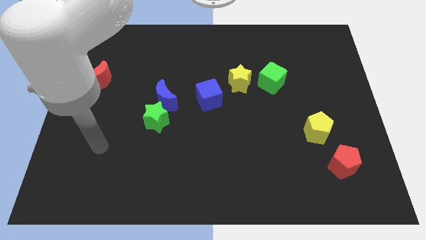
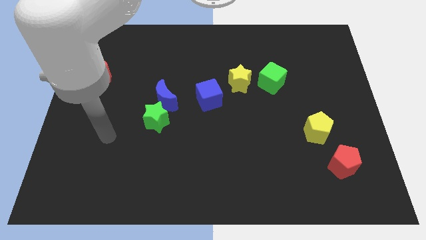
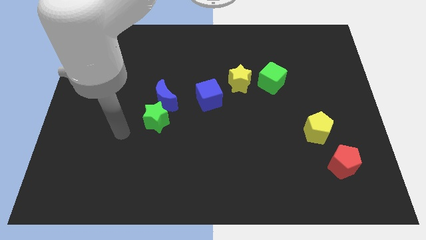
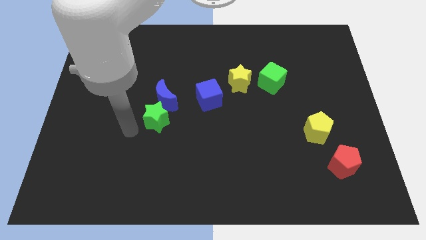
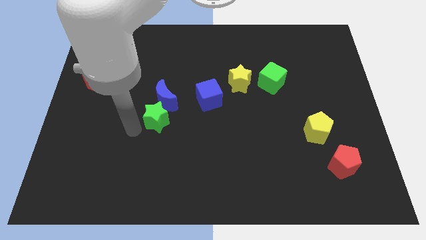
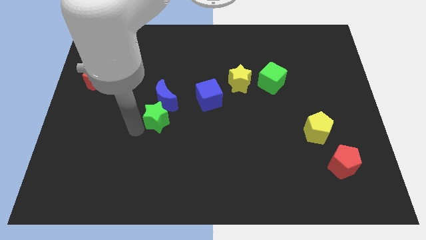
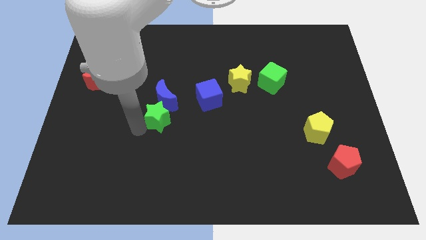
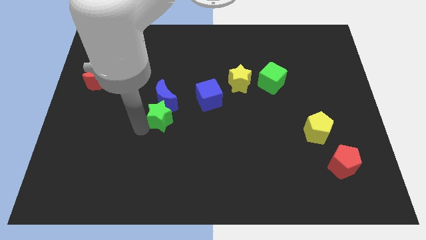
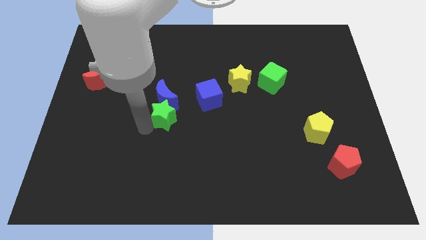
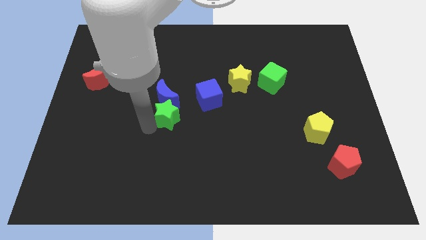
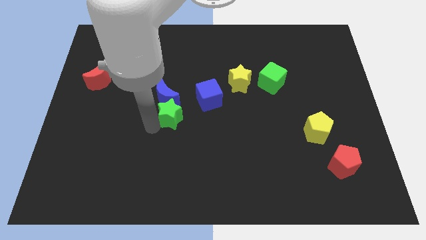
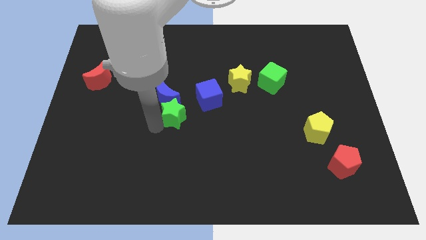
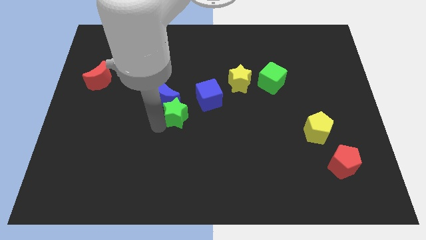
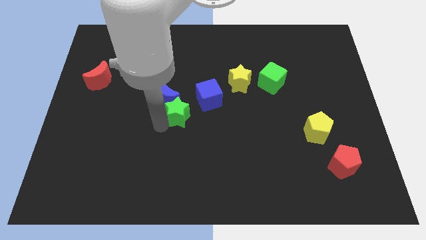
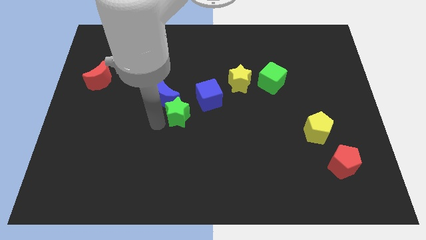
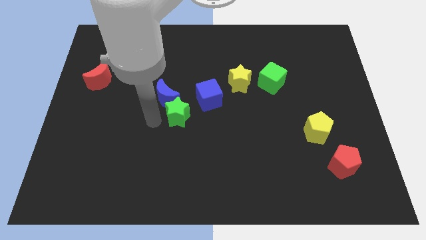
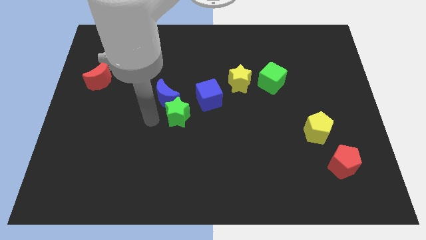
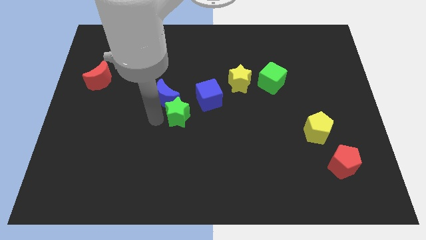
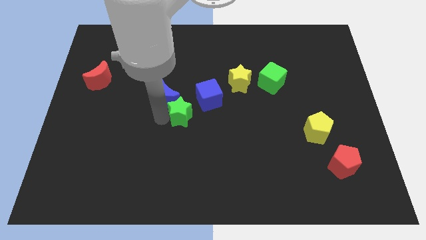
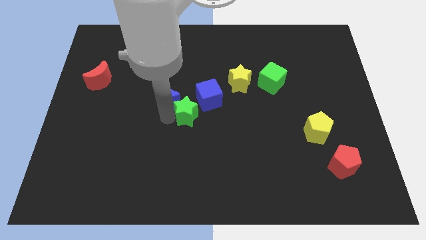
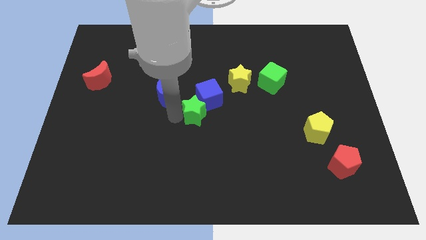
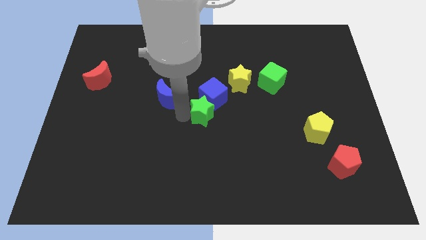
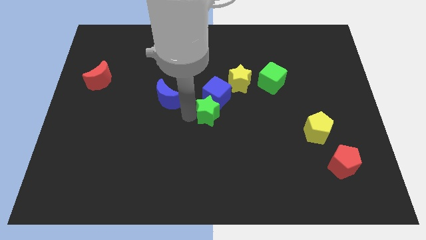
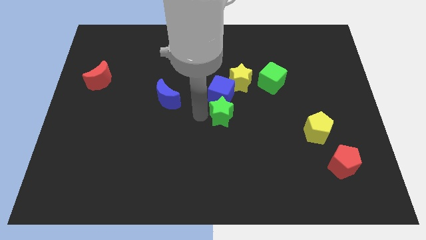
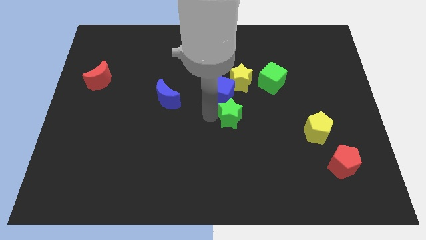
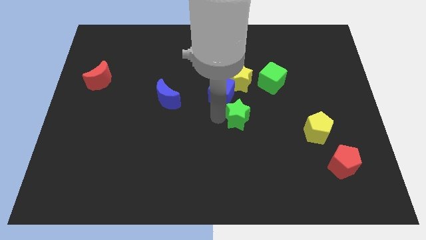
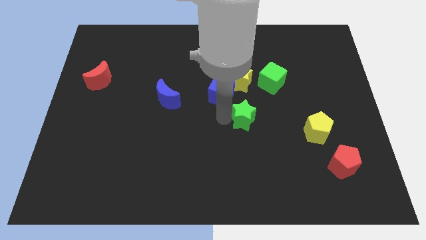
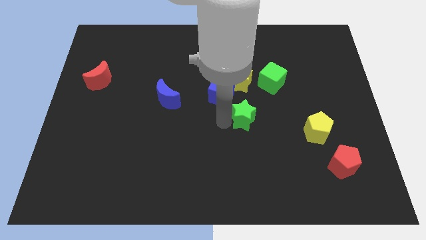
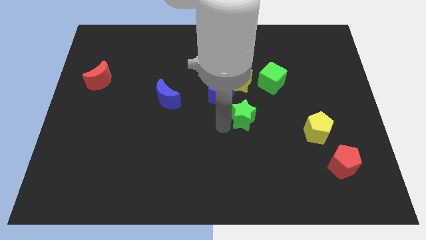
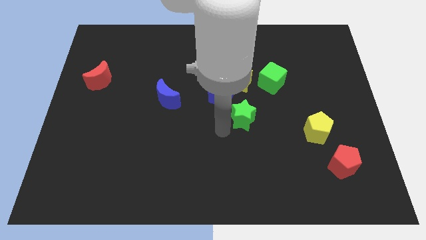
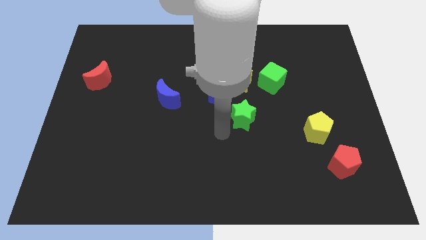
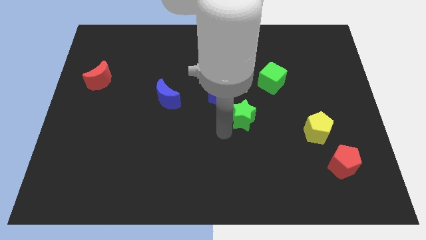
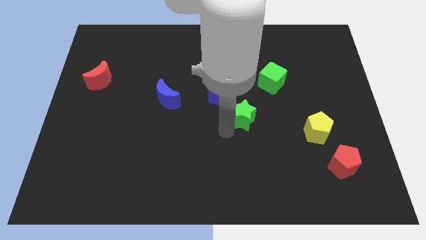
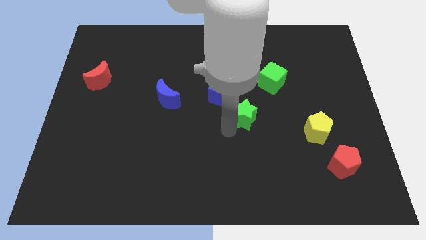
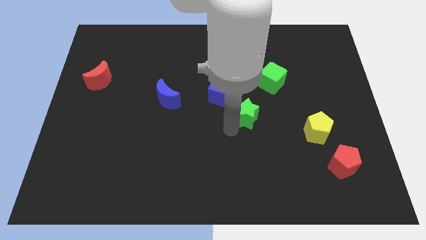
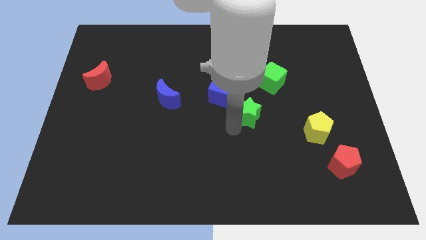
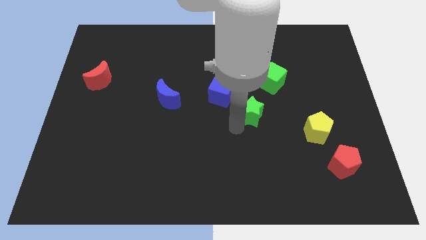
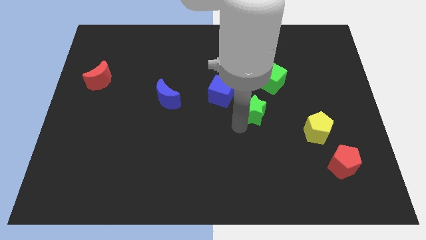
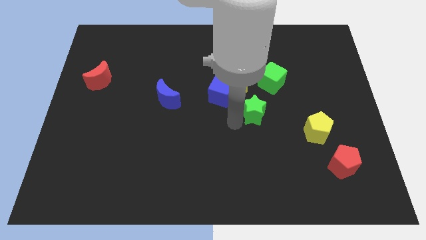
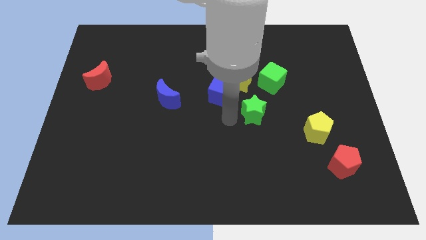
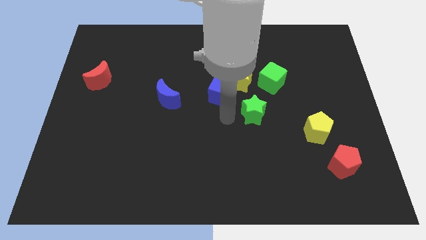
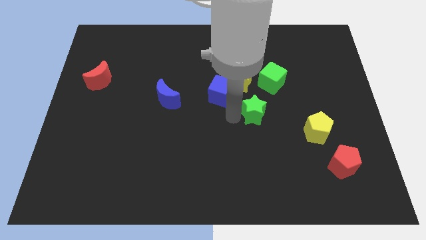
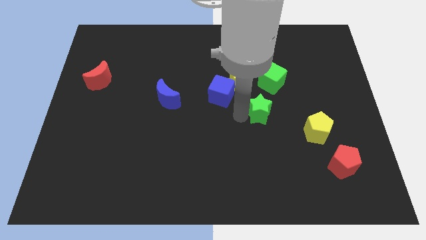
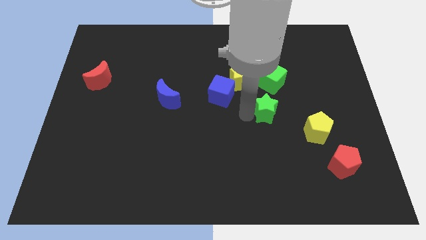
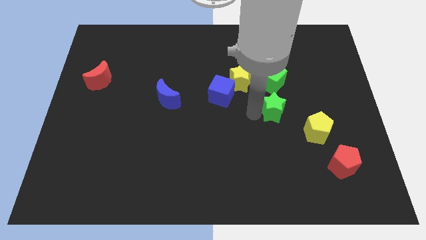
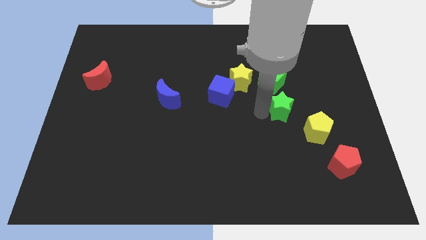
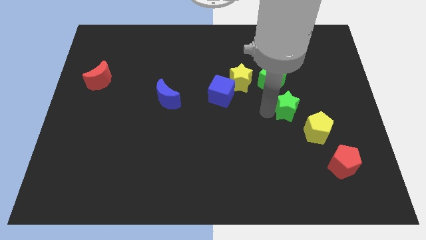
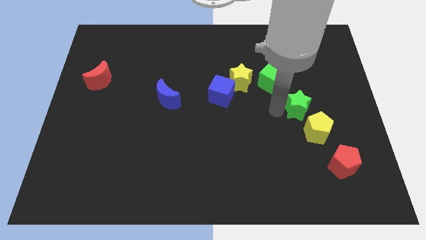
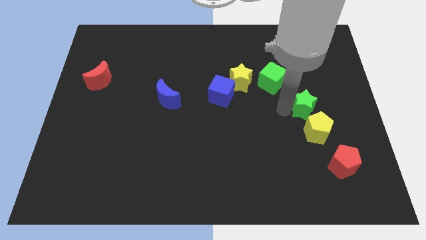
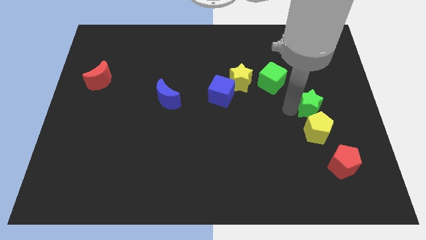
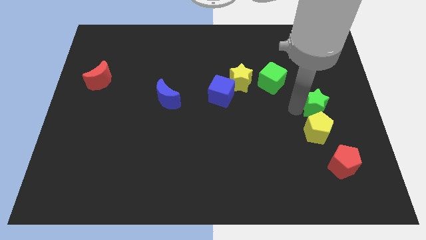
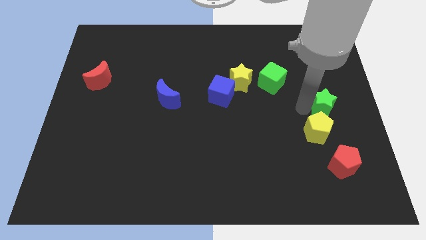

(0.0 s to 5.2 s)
move the green star to the right side of the board

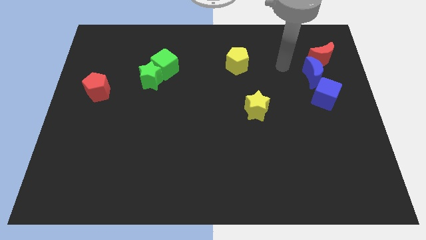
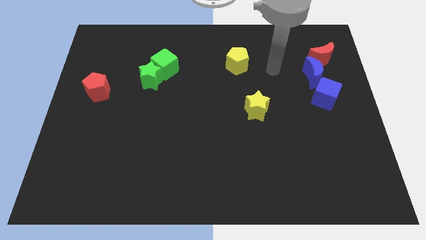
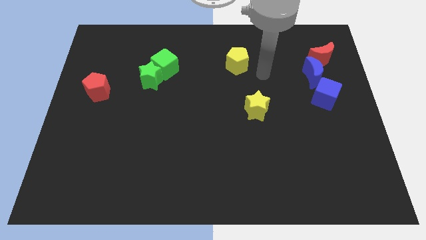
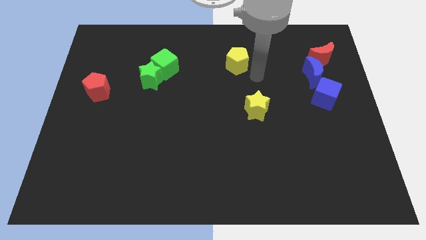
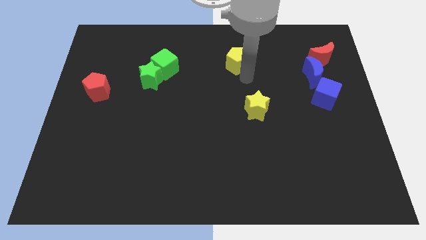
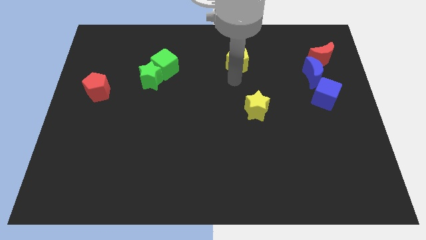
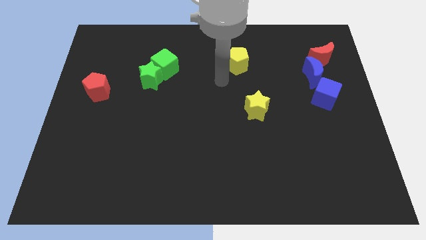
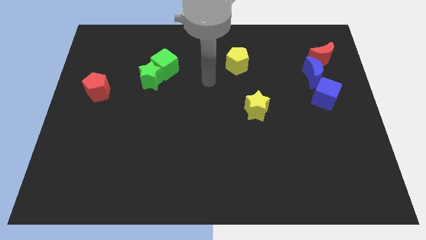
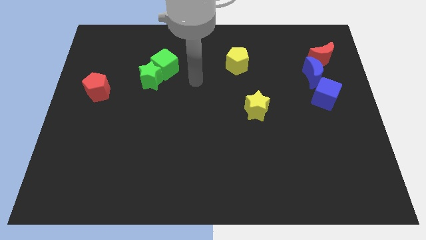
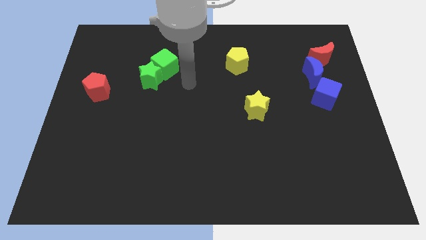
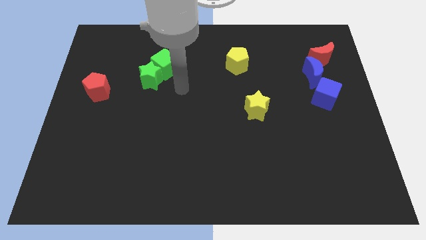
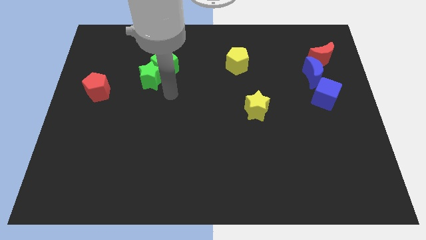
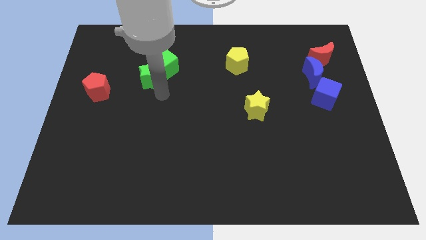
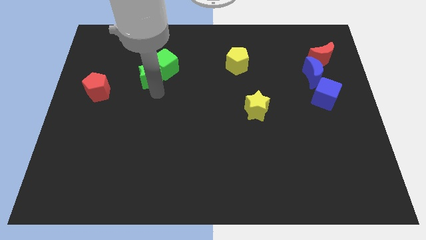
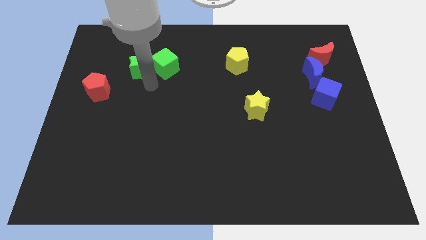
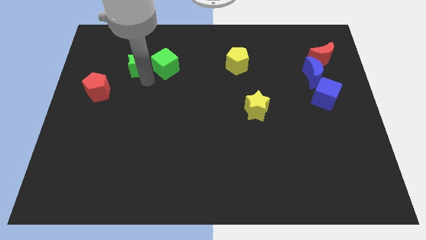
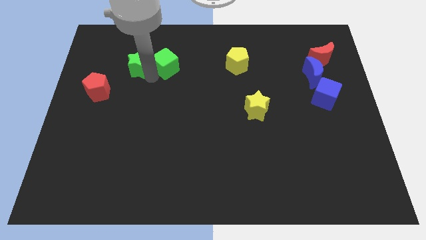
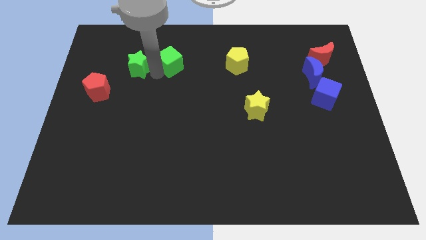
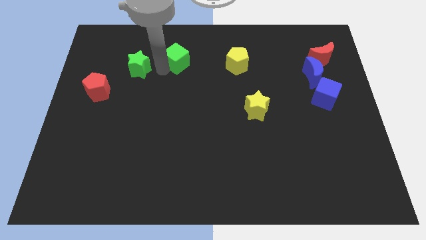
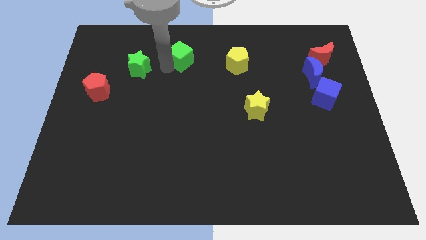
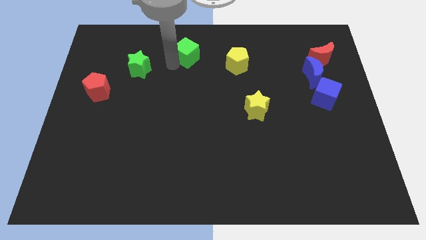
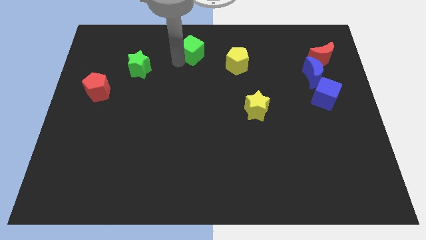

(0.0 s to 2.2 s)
move the green cube to the towards your base
